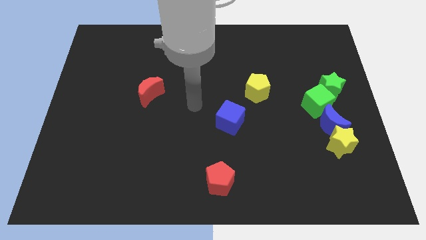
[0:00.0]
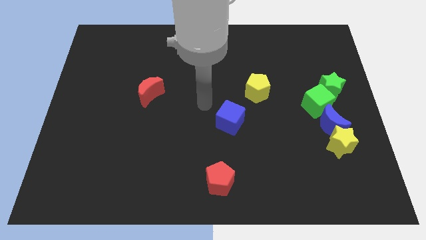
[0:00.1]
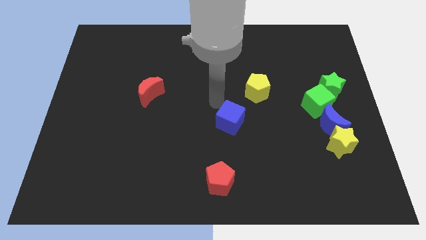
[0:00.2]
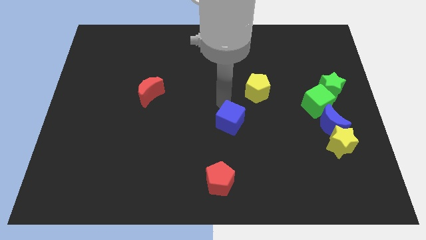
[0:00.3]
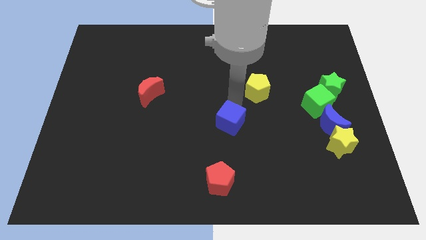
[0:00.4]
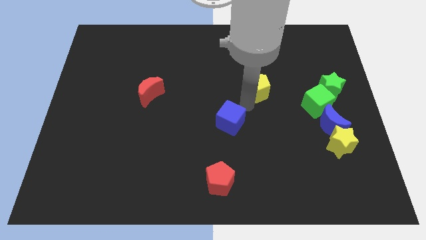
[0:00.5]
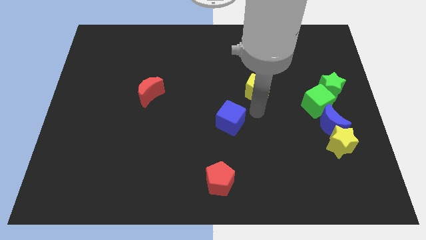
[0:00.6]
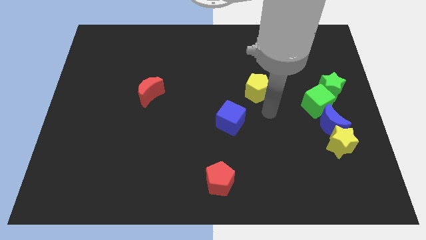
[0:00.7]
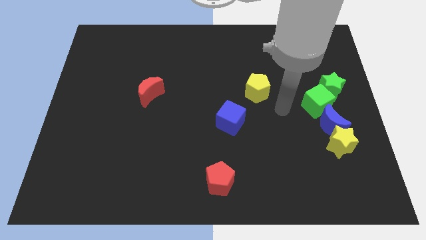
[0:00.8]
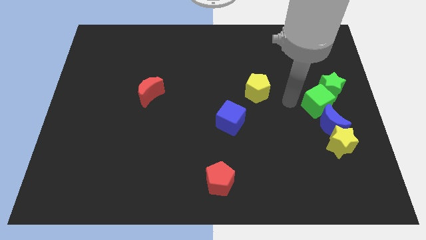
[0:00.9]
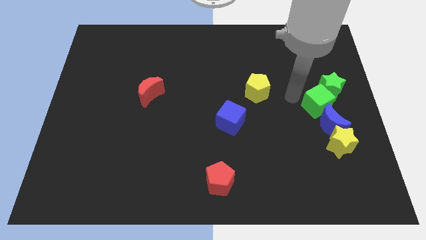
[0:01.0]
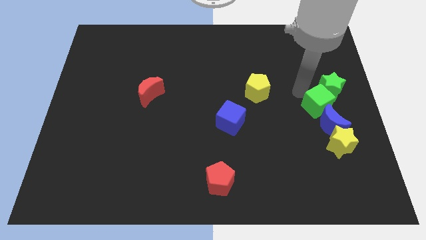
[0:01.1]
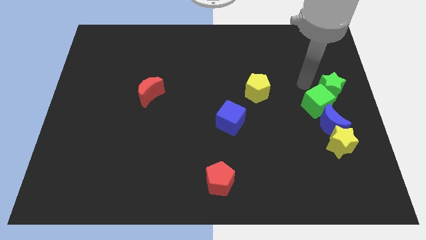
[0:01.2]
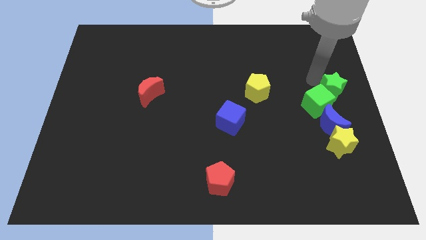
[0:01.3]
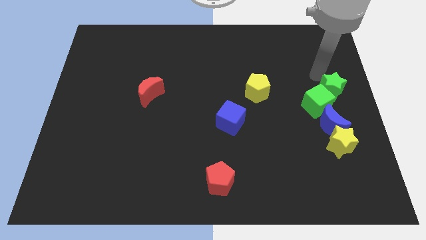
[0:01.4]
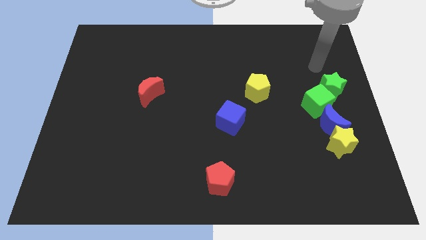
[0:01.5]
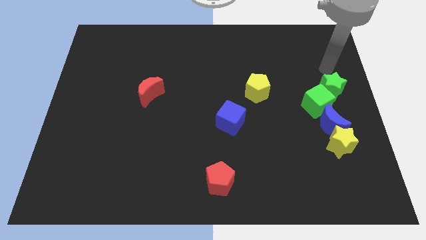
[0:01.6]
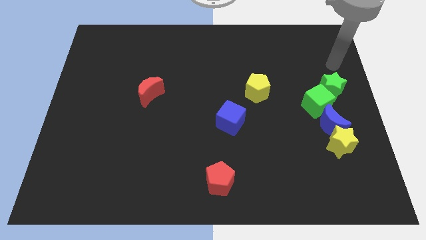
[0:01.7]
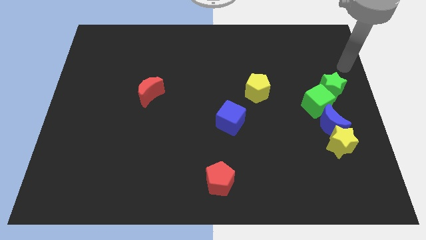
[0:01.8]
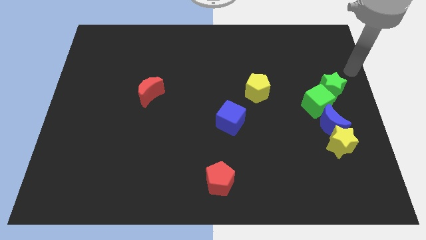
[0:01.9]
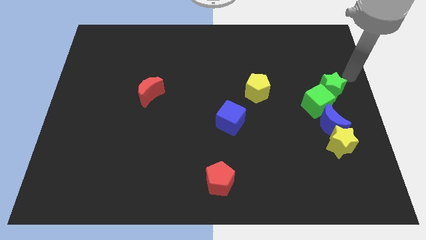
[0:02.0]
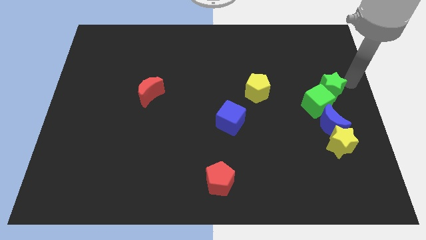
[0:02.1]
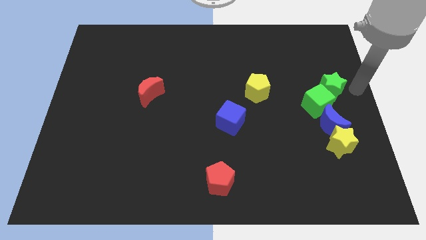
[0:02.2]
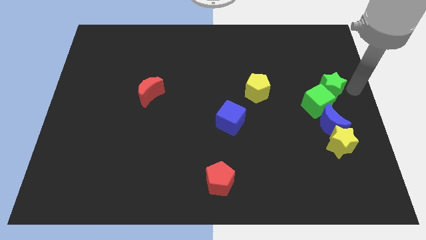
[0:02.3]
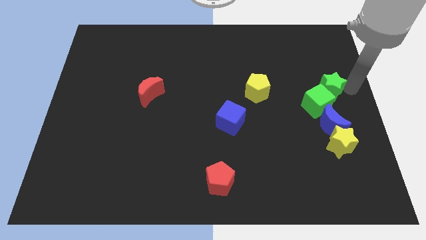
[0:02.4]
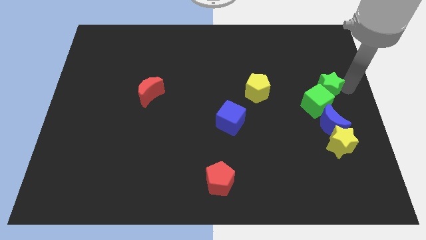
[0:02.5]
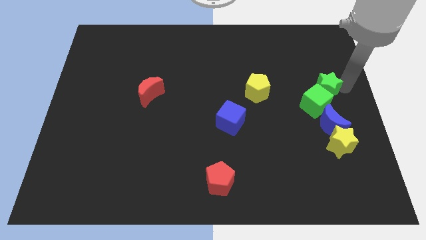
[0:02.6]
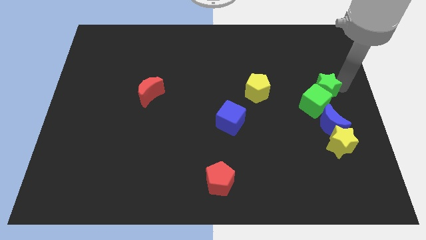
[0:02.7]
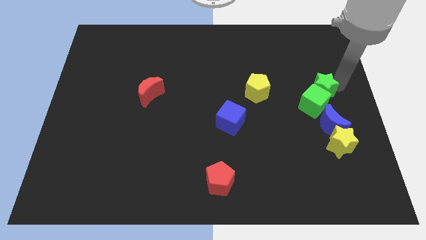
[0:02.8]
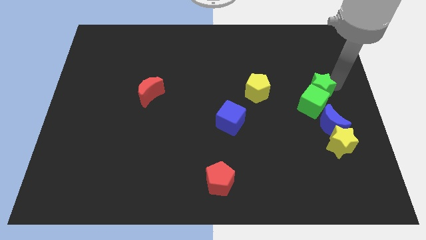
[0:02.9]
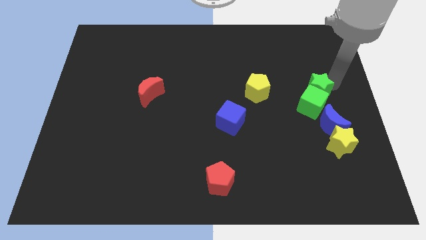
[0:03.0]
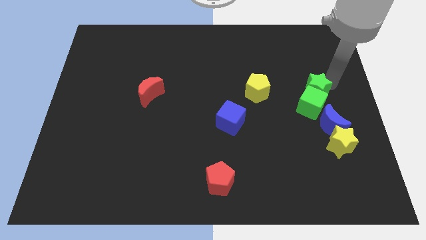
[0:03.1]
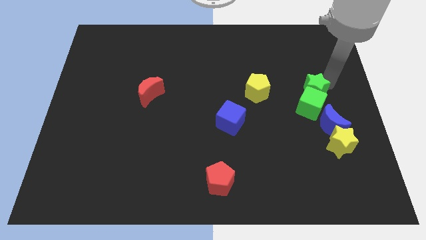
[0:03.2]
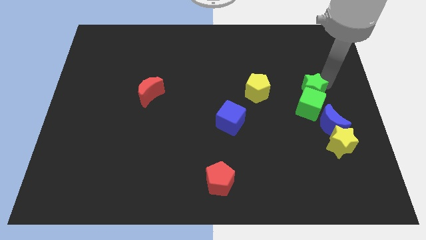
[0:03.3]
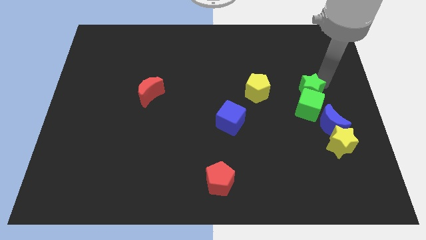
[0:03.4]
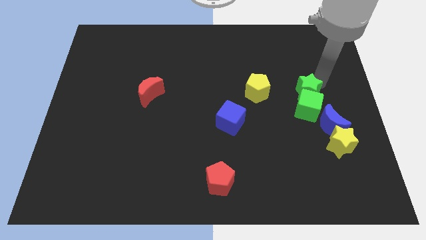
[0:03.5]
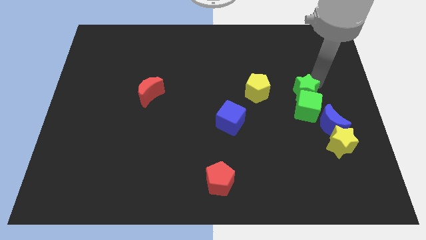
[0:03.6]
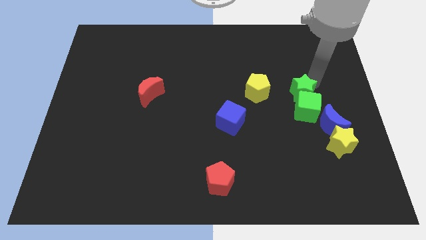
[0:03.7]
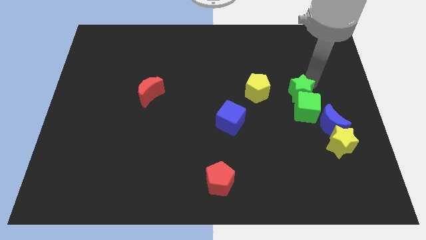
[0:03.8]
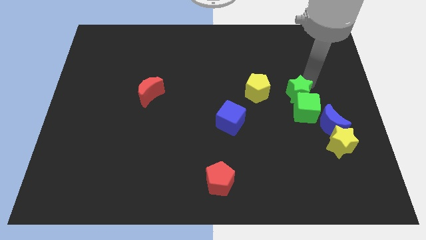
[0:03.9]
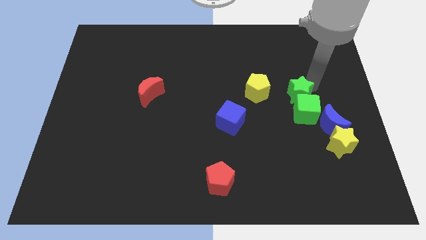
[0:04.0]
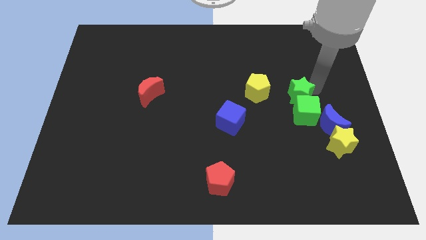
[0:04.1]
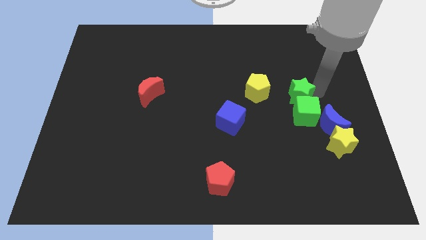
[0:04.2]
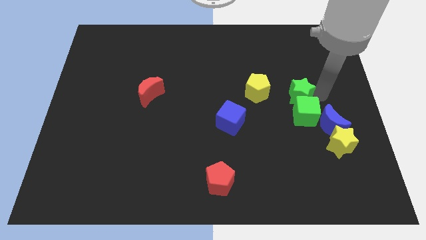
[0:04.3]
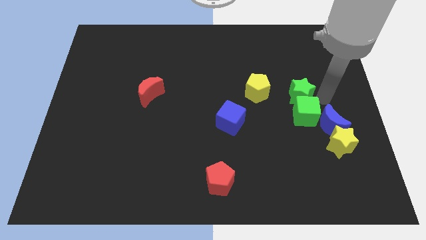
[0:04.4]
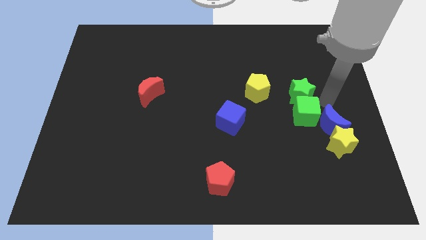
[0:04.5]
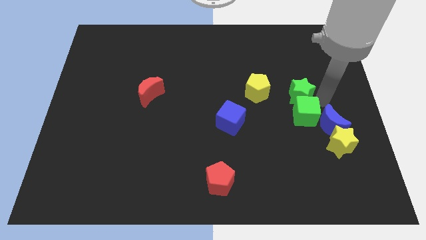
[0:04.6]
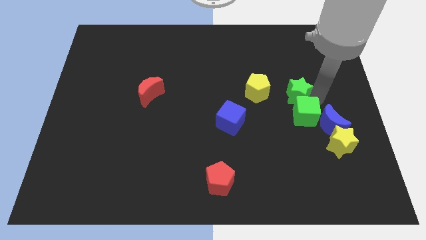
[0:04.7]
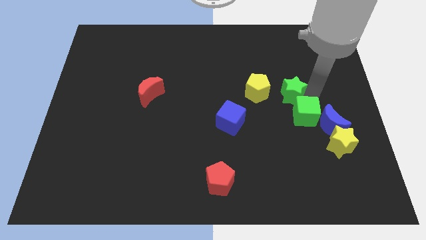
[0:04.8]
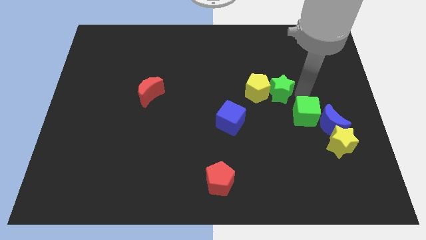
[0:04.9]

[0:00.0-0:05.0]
move the green star close to the yellow pentagon

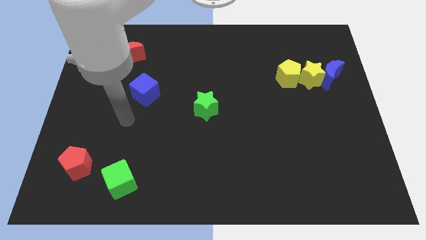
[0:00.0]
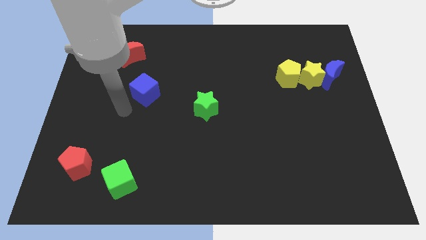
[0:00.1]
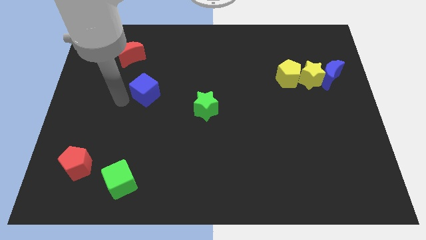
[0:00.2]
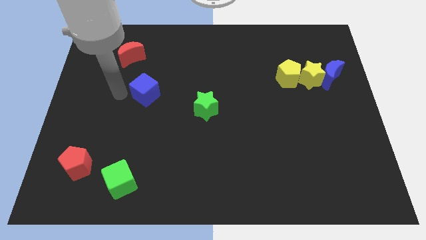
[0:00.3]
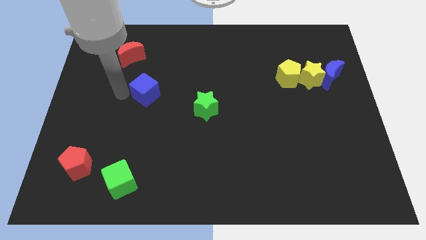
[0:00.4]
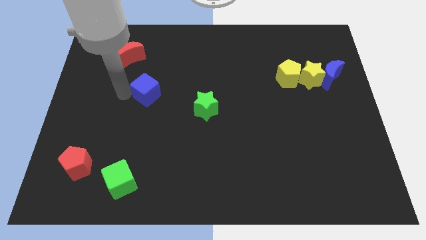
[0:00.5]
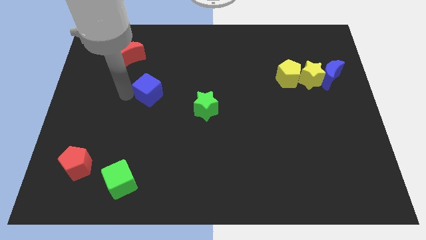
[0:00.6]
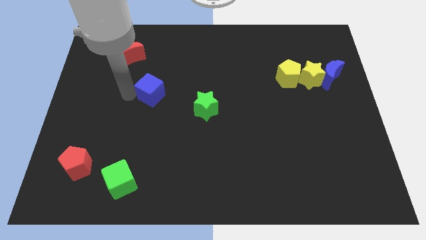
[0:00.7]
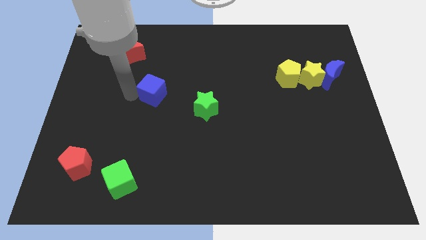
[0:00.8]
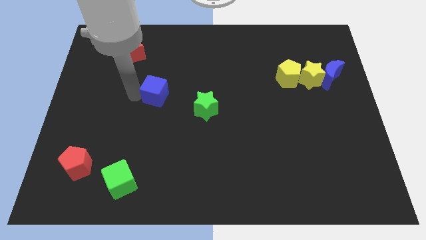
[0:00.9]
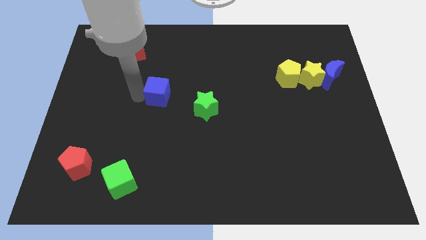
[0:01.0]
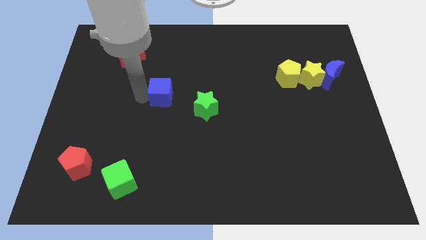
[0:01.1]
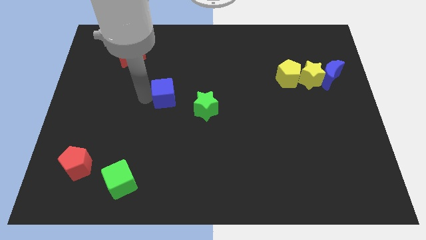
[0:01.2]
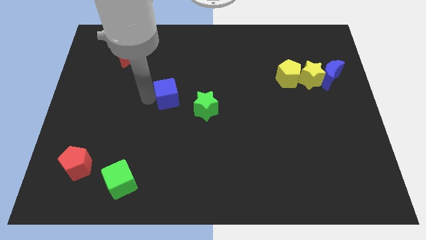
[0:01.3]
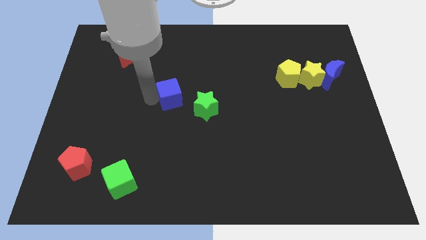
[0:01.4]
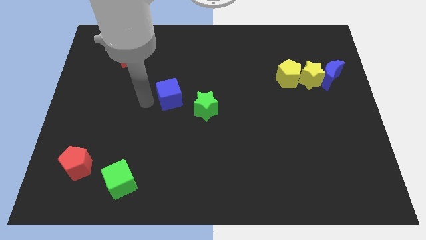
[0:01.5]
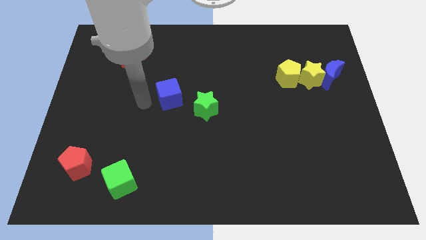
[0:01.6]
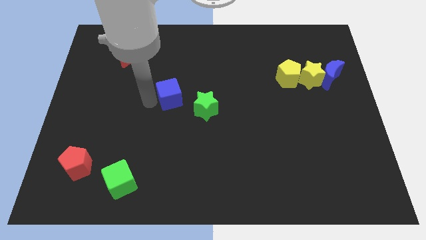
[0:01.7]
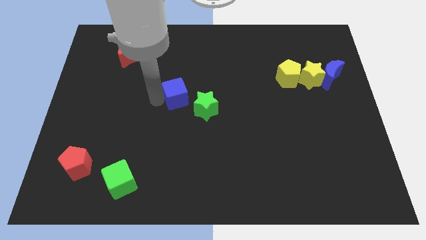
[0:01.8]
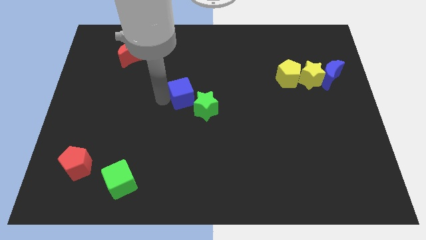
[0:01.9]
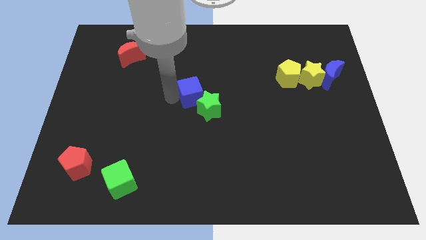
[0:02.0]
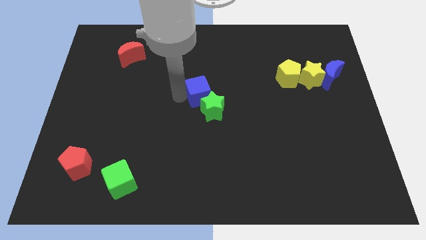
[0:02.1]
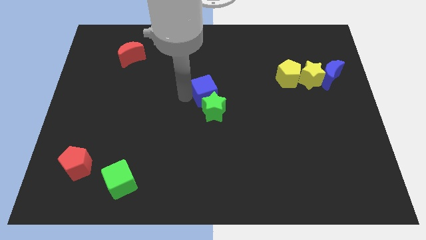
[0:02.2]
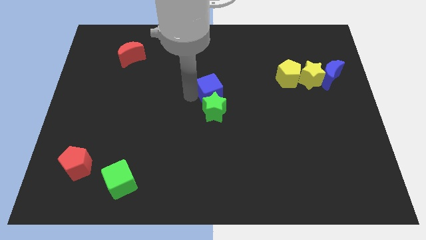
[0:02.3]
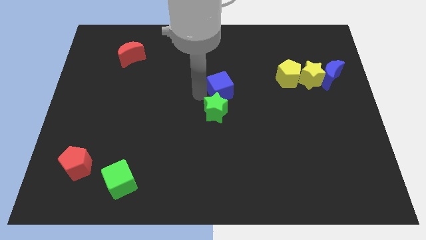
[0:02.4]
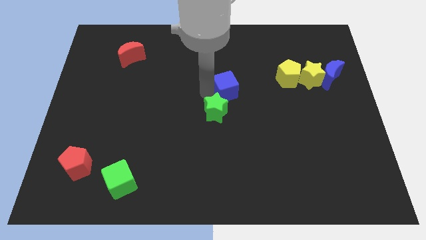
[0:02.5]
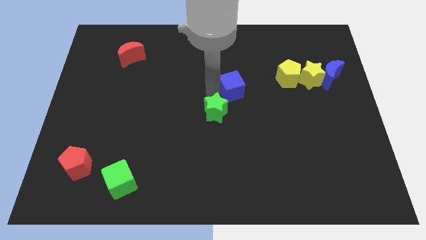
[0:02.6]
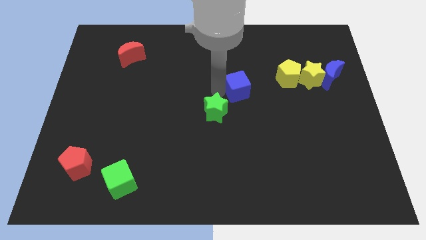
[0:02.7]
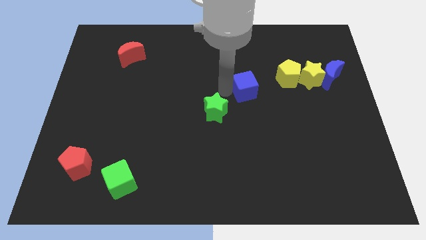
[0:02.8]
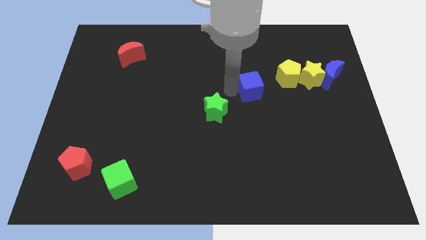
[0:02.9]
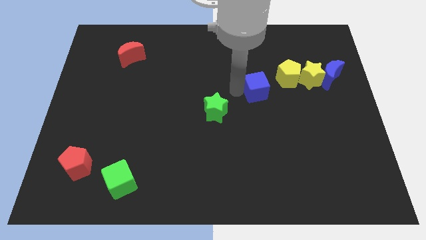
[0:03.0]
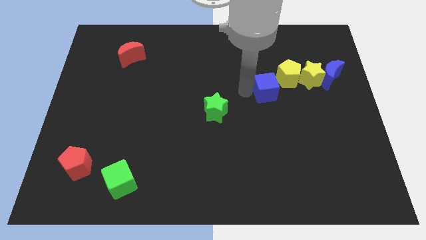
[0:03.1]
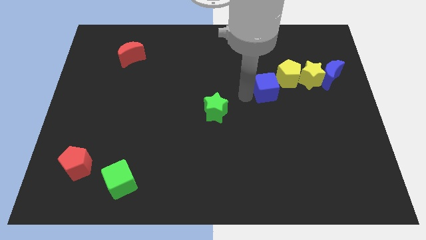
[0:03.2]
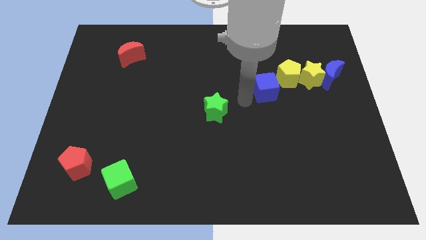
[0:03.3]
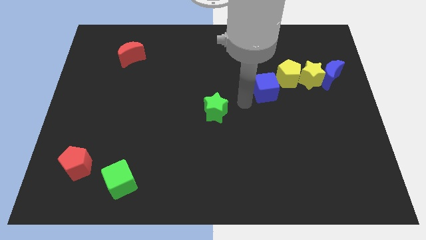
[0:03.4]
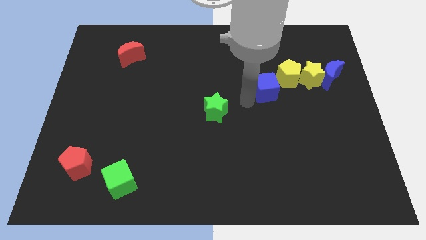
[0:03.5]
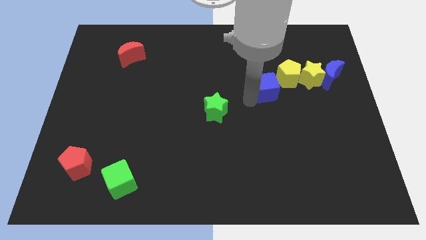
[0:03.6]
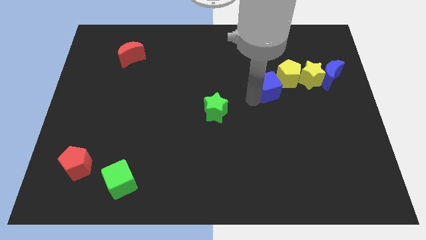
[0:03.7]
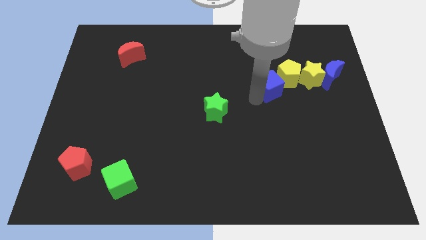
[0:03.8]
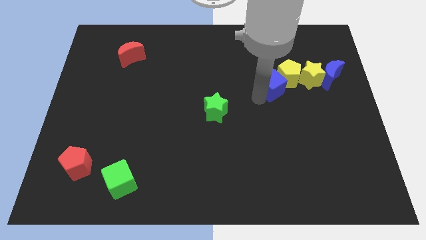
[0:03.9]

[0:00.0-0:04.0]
slide the blue cube close to the yellow pentagon
